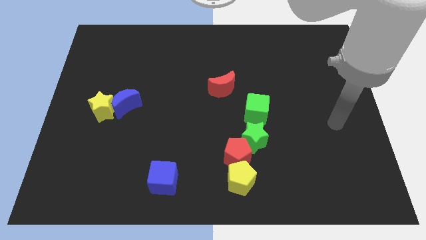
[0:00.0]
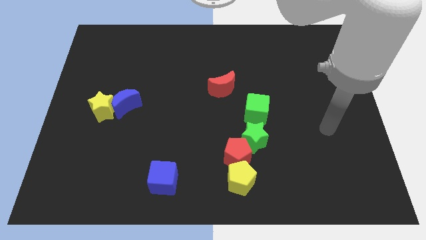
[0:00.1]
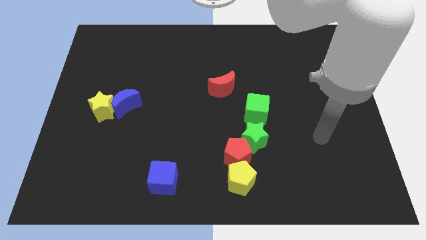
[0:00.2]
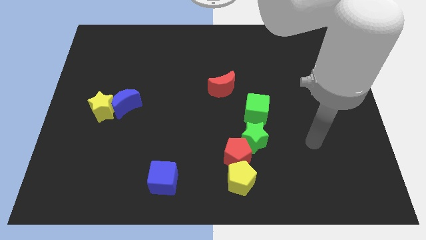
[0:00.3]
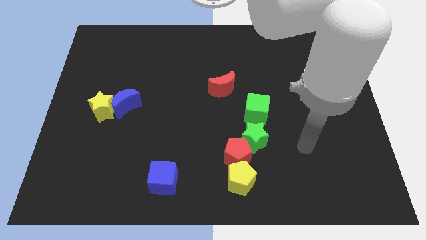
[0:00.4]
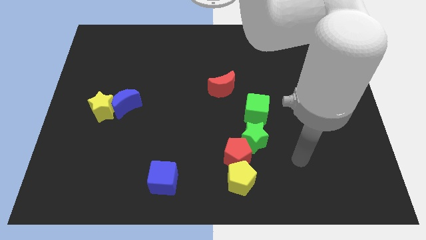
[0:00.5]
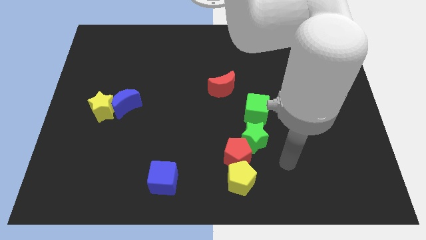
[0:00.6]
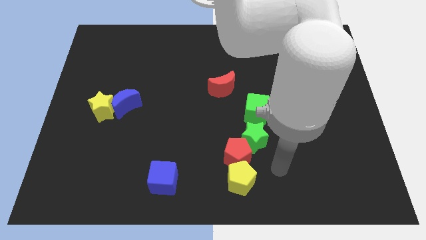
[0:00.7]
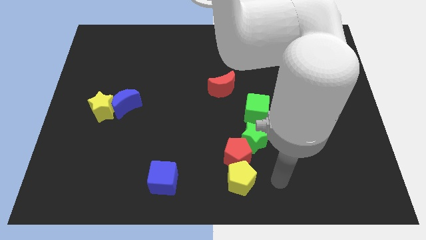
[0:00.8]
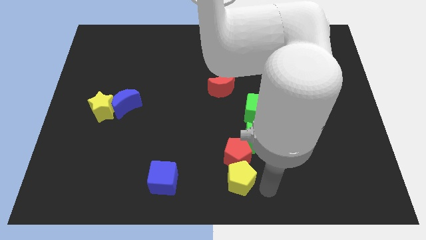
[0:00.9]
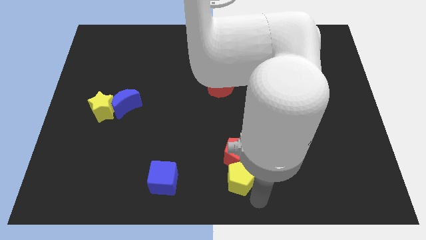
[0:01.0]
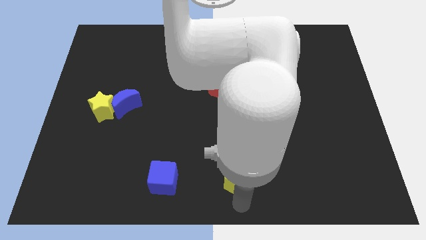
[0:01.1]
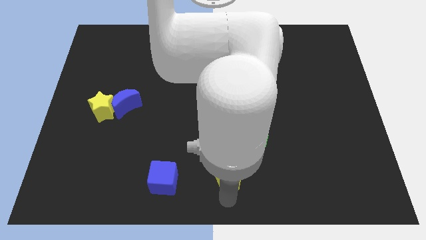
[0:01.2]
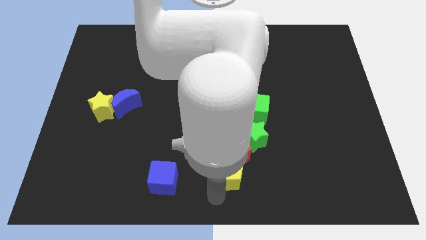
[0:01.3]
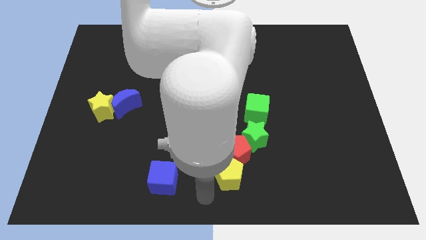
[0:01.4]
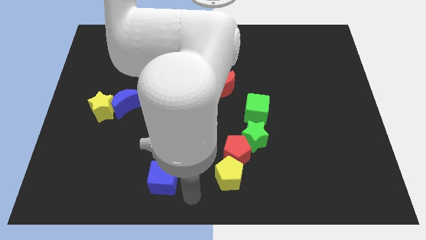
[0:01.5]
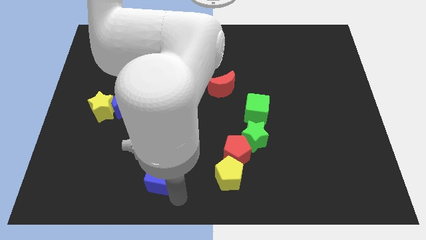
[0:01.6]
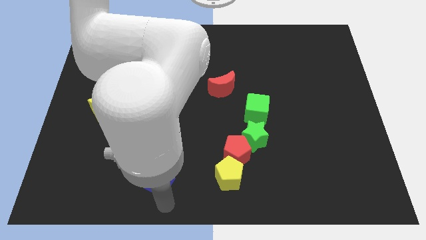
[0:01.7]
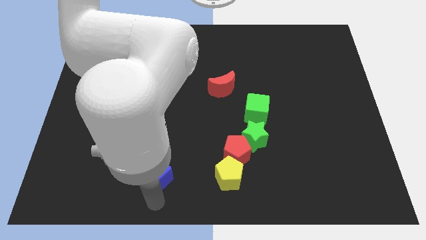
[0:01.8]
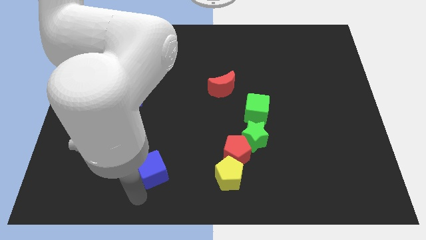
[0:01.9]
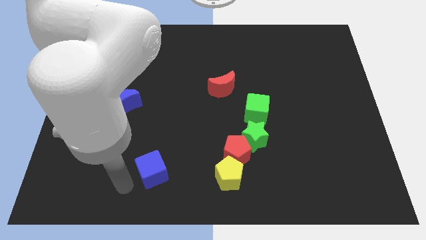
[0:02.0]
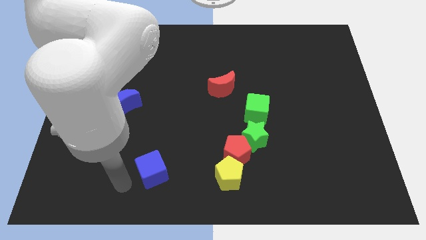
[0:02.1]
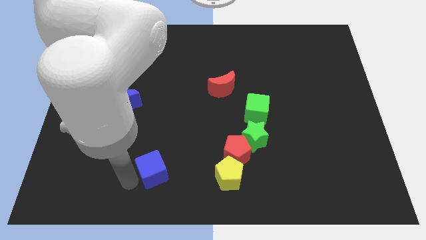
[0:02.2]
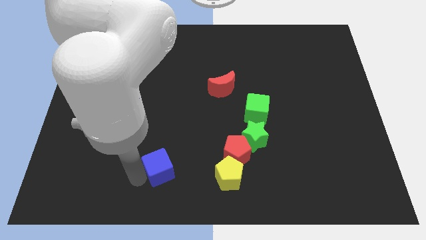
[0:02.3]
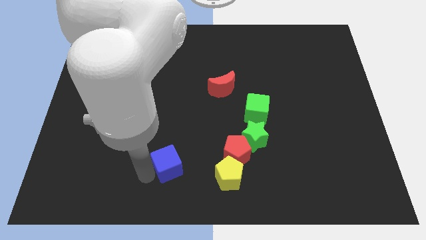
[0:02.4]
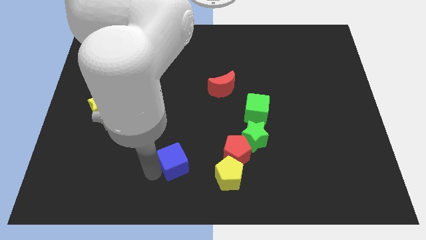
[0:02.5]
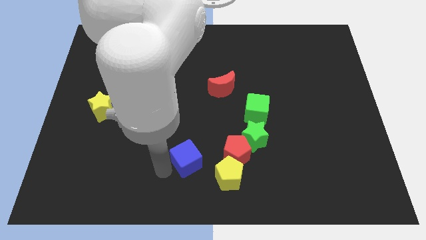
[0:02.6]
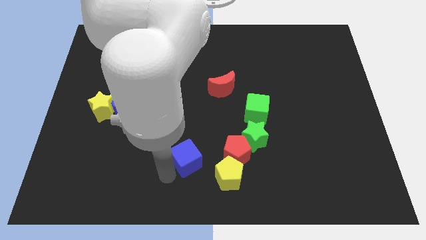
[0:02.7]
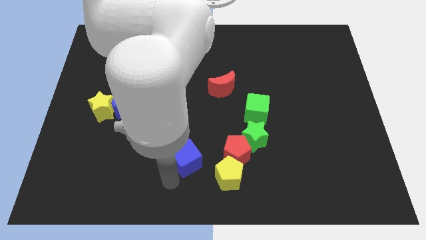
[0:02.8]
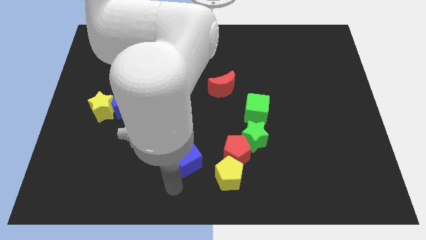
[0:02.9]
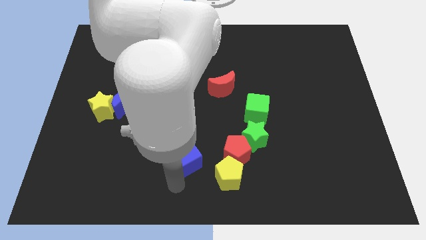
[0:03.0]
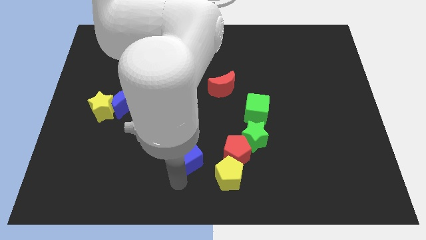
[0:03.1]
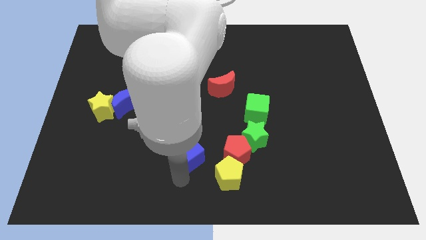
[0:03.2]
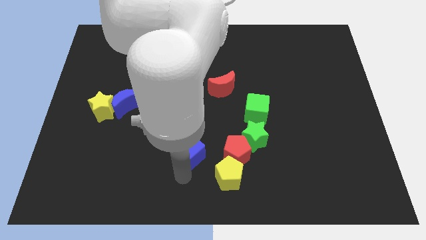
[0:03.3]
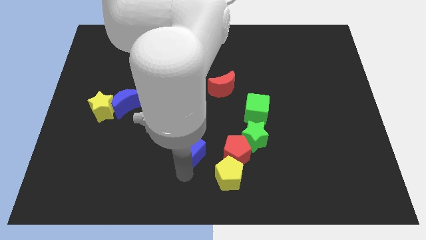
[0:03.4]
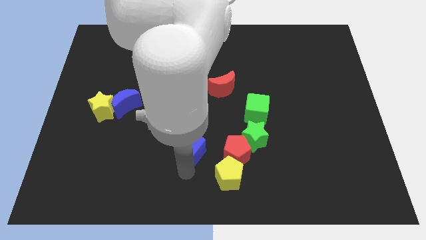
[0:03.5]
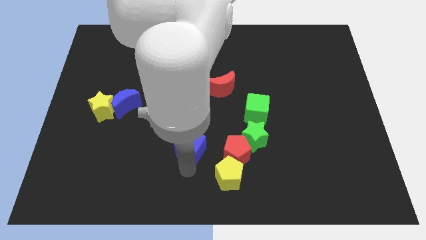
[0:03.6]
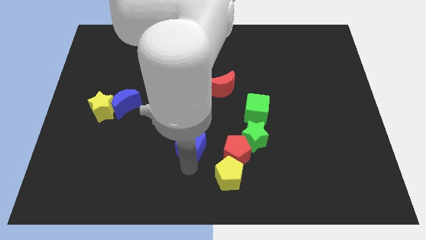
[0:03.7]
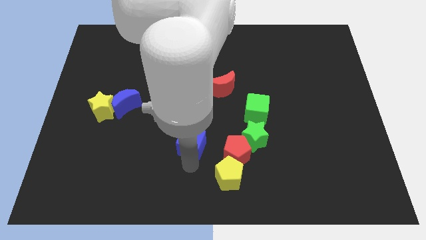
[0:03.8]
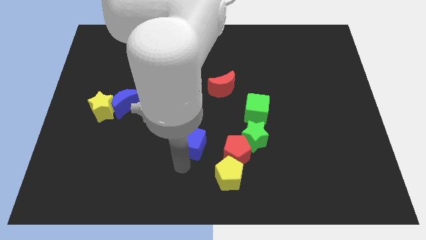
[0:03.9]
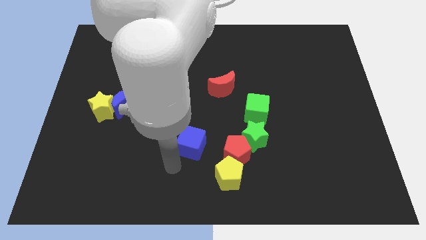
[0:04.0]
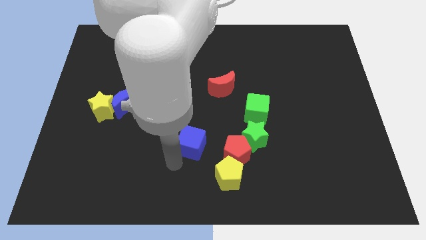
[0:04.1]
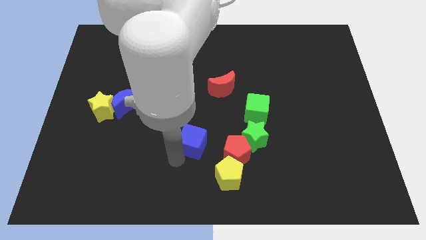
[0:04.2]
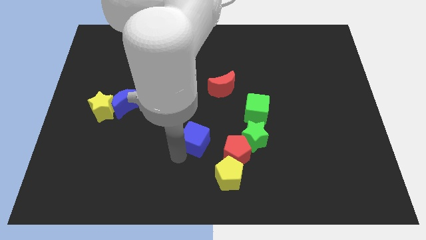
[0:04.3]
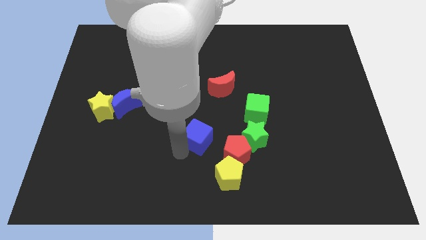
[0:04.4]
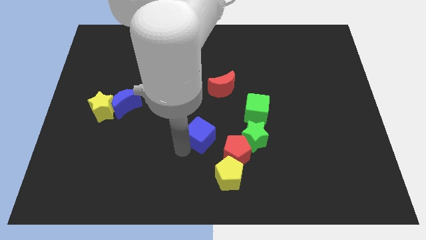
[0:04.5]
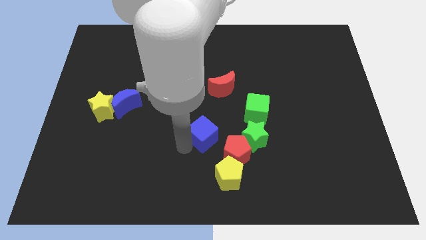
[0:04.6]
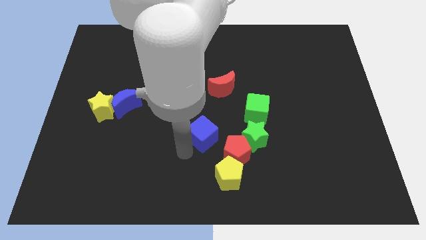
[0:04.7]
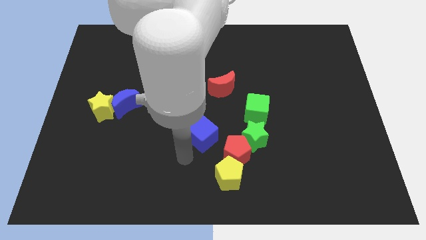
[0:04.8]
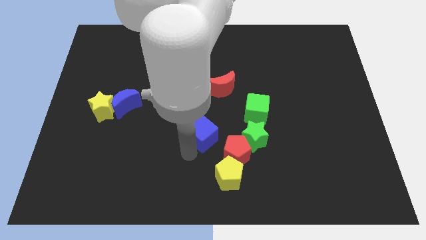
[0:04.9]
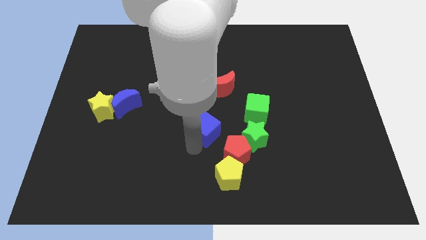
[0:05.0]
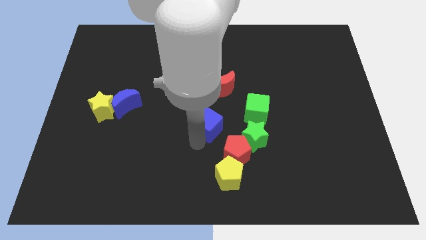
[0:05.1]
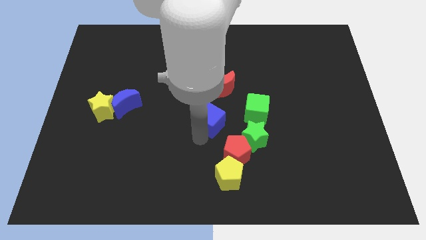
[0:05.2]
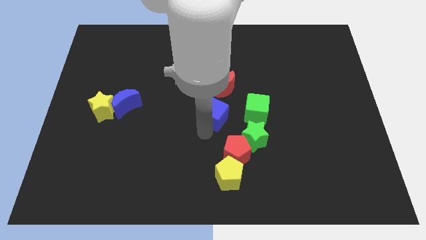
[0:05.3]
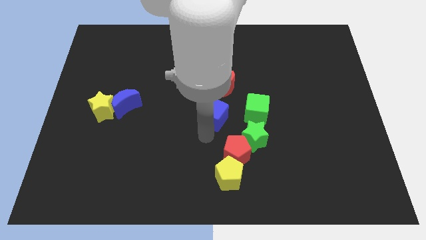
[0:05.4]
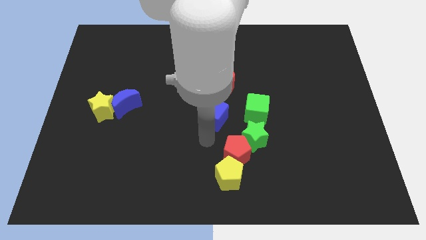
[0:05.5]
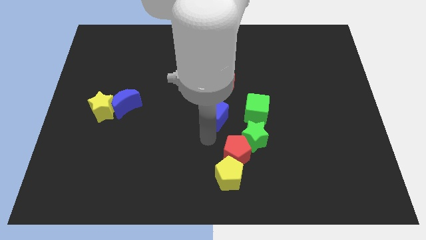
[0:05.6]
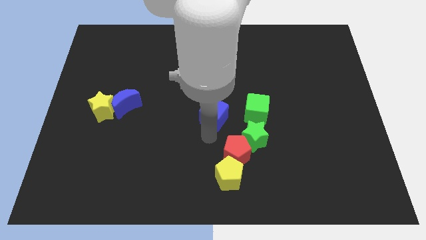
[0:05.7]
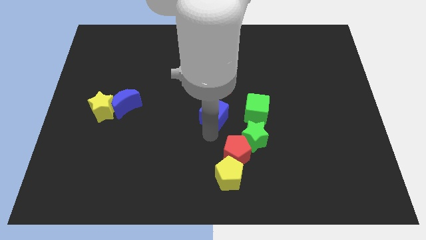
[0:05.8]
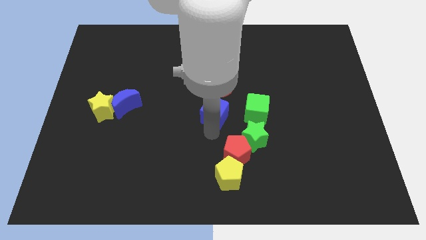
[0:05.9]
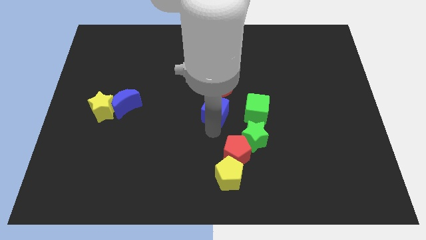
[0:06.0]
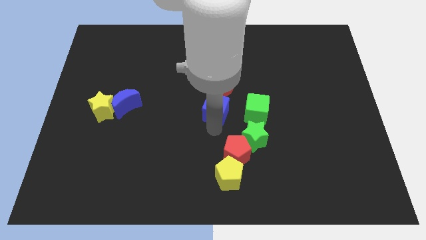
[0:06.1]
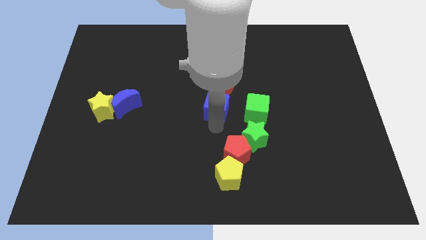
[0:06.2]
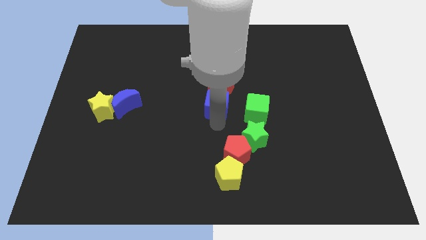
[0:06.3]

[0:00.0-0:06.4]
slide the blue cube to the red moon

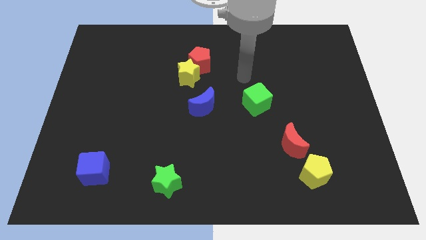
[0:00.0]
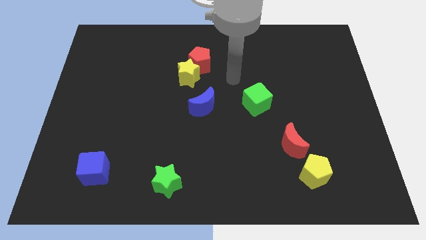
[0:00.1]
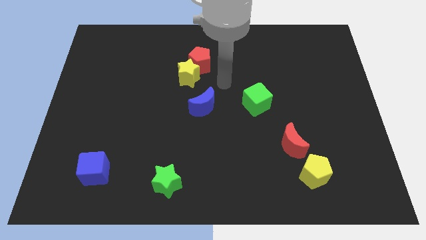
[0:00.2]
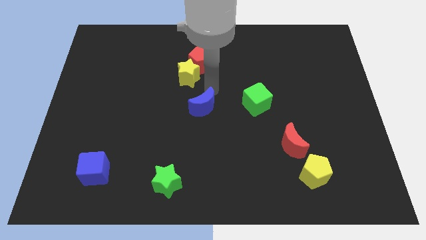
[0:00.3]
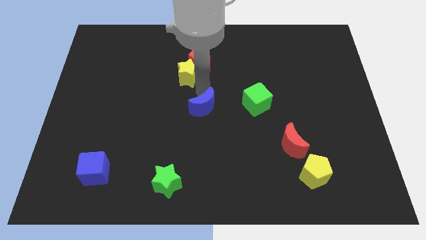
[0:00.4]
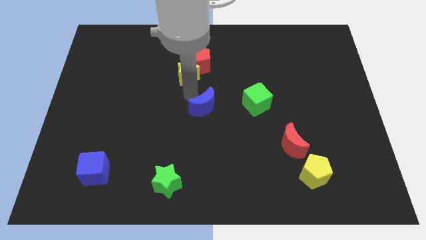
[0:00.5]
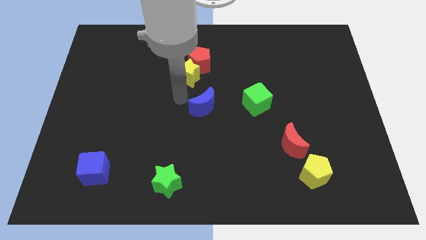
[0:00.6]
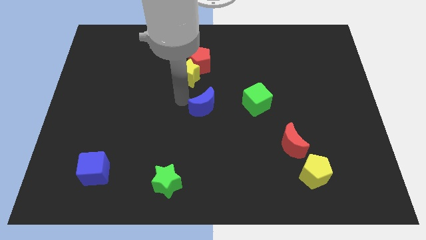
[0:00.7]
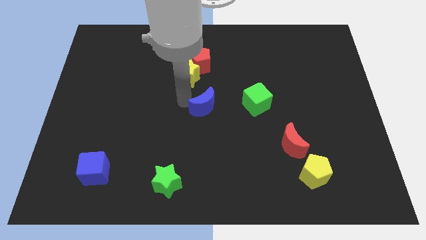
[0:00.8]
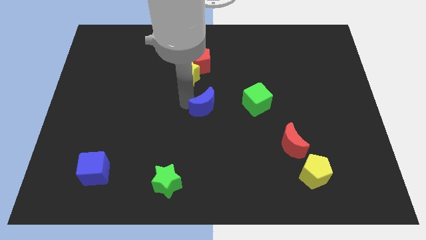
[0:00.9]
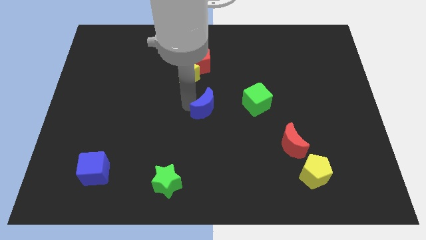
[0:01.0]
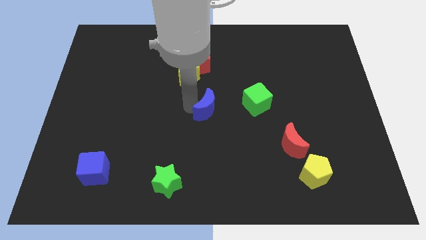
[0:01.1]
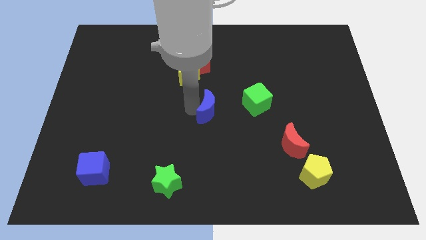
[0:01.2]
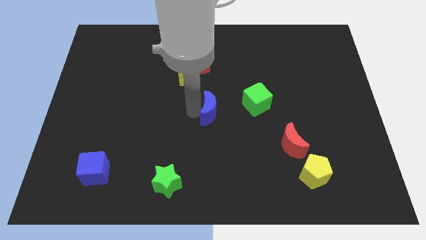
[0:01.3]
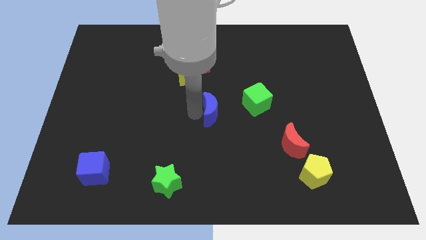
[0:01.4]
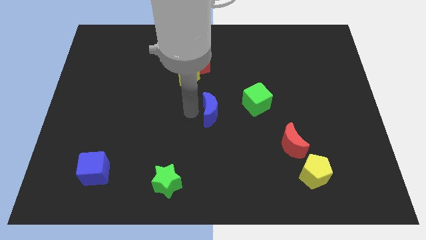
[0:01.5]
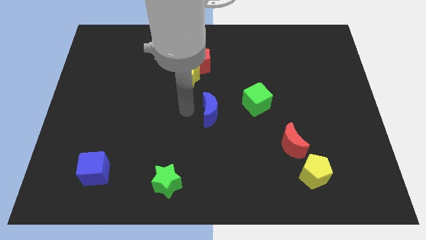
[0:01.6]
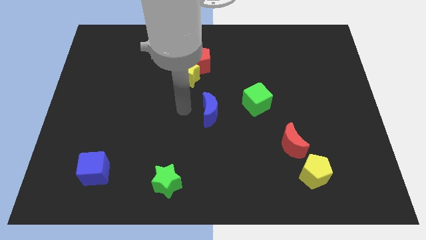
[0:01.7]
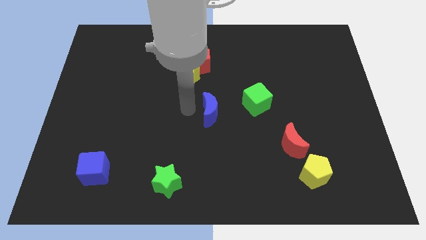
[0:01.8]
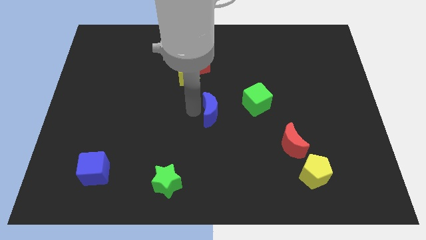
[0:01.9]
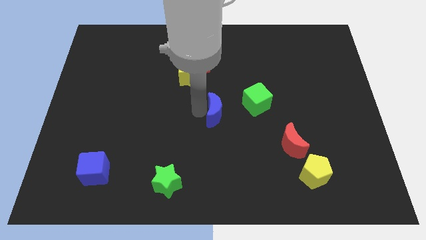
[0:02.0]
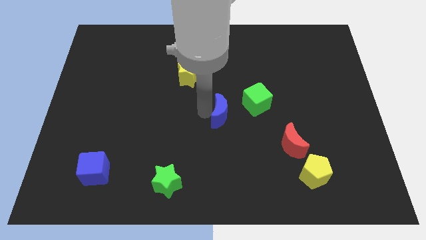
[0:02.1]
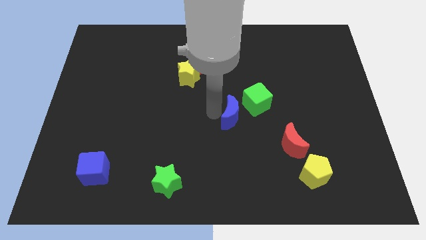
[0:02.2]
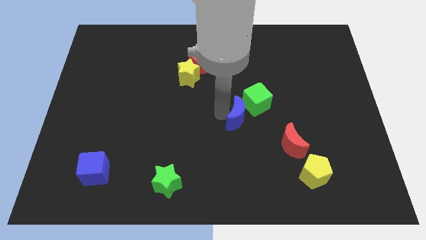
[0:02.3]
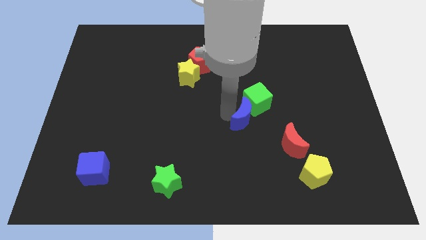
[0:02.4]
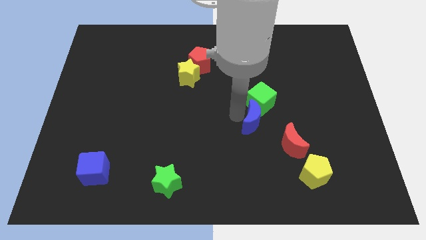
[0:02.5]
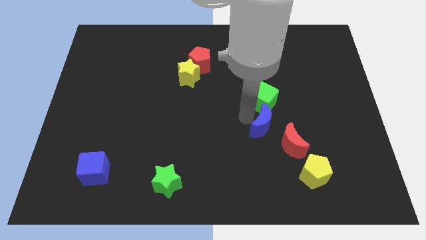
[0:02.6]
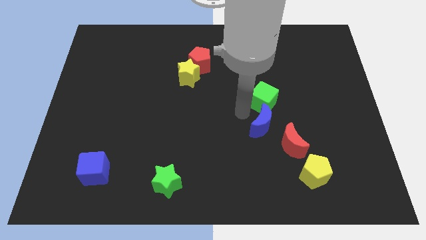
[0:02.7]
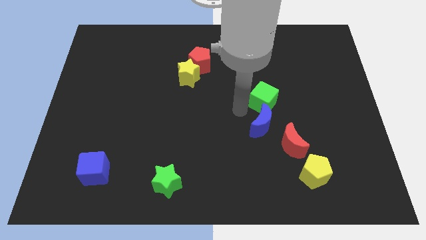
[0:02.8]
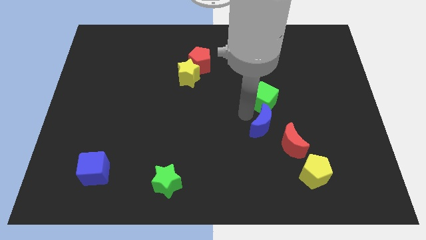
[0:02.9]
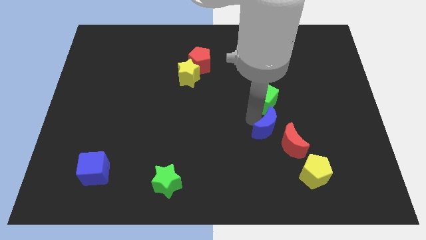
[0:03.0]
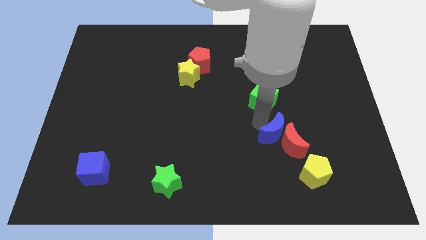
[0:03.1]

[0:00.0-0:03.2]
put the blue moon next to the red moon
